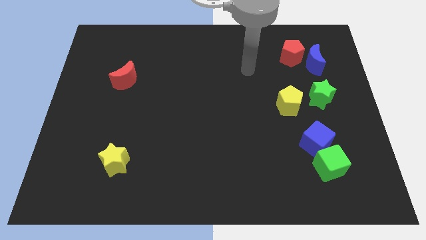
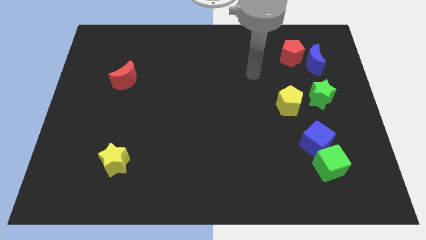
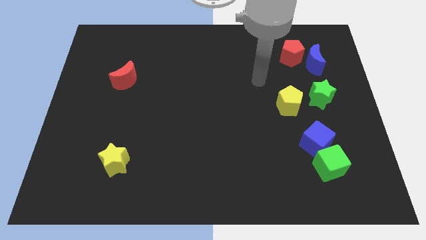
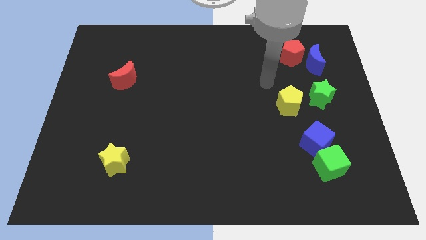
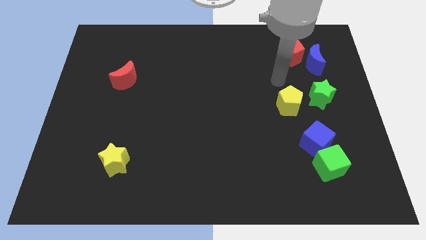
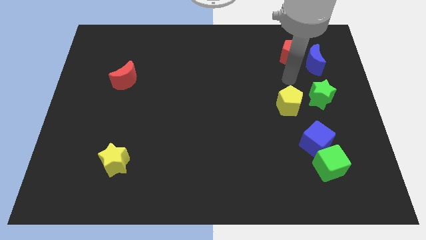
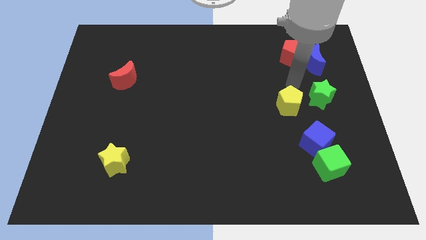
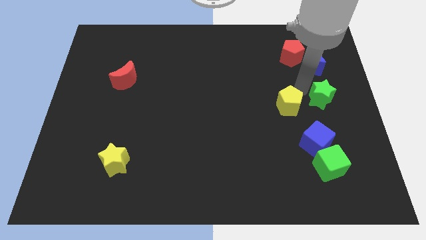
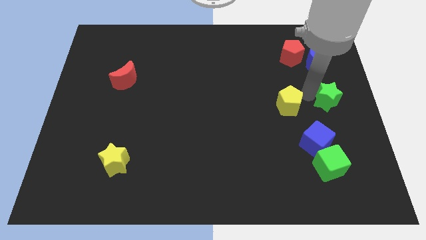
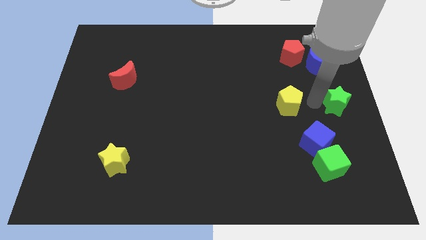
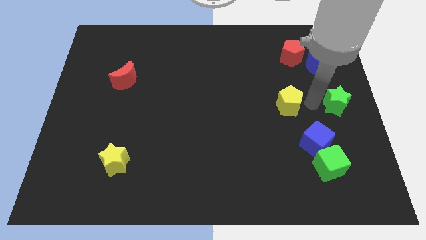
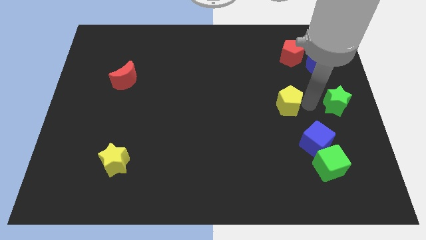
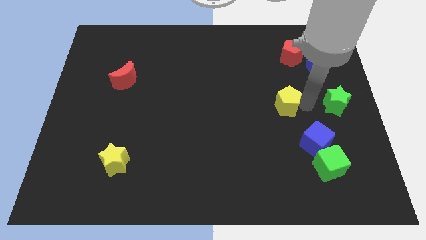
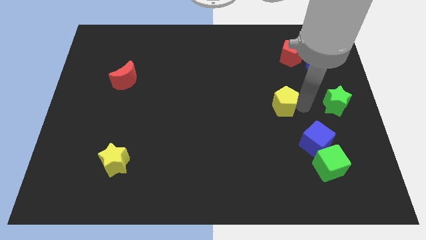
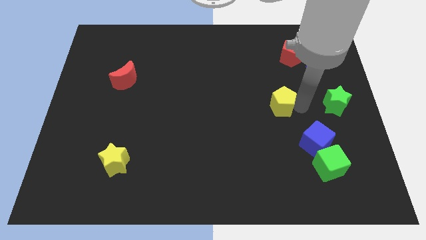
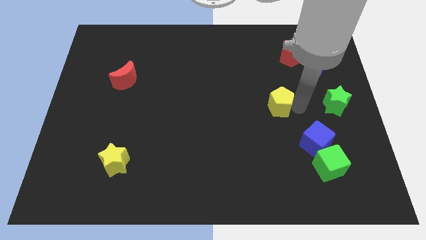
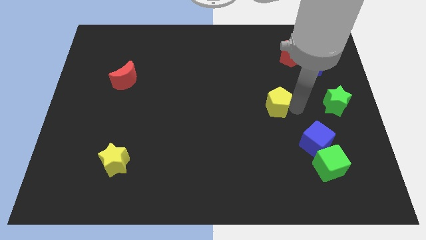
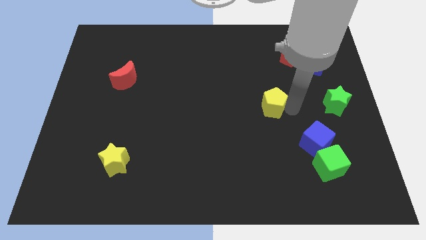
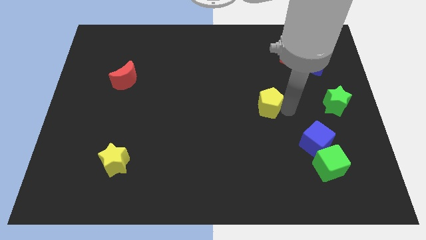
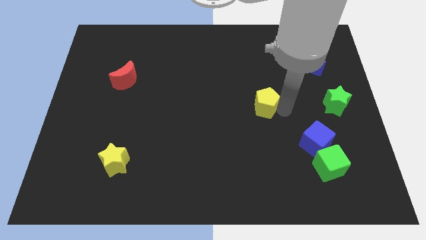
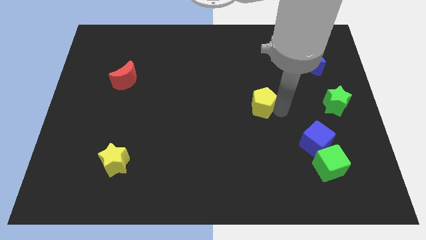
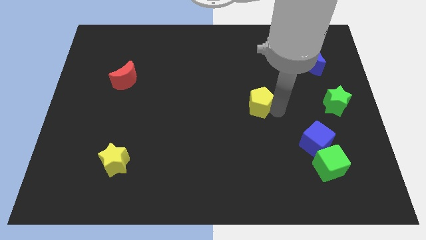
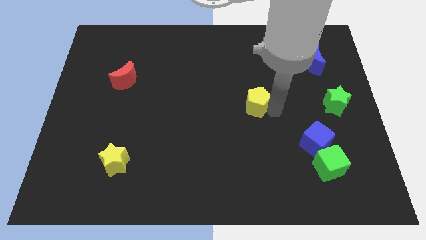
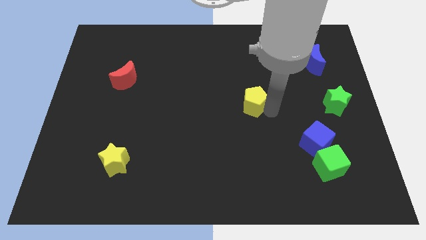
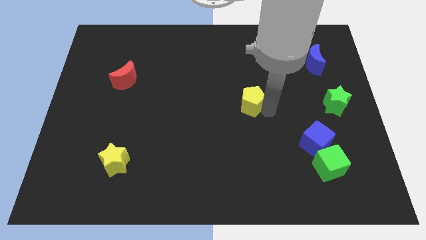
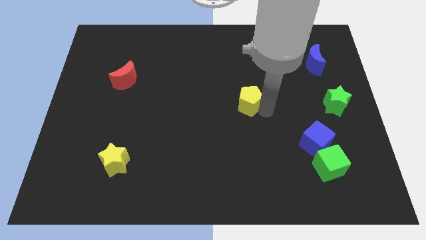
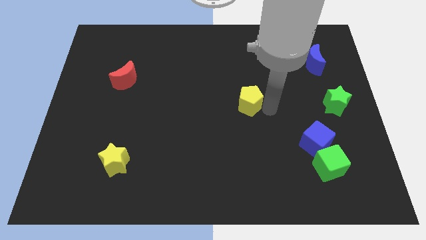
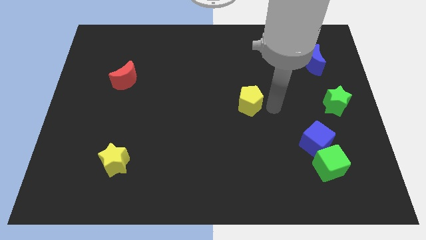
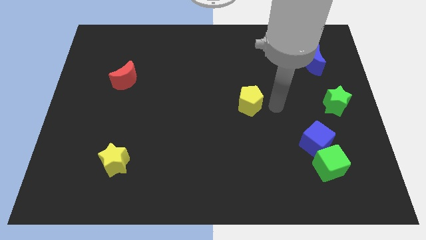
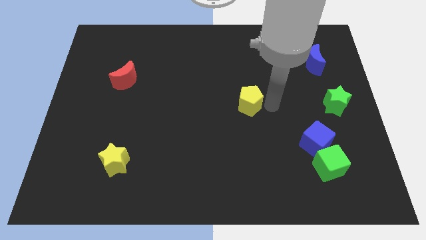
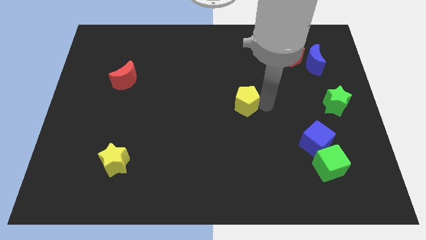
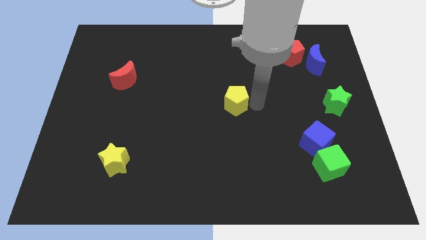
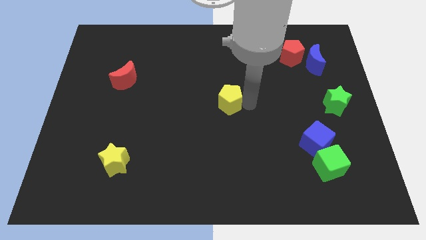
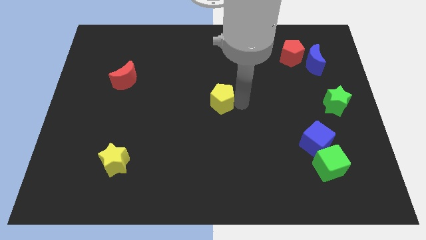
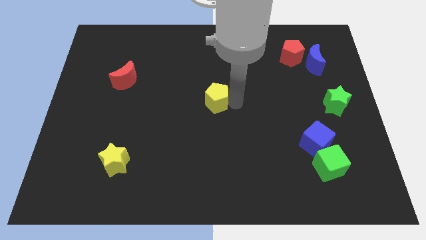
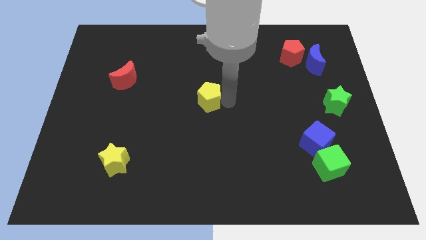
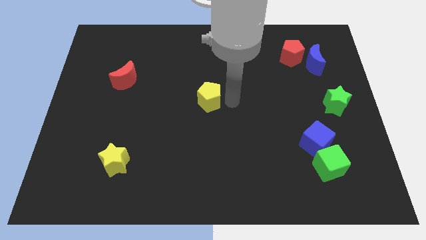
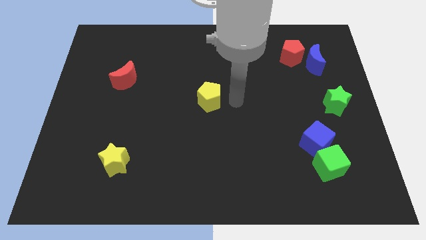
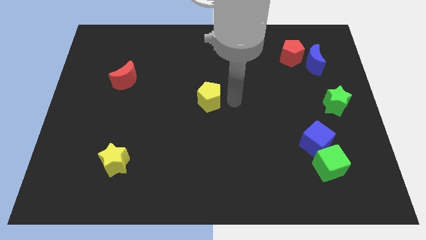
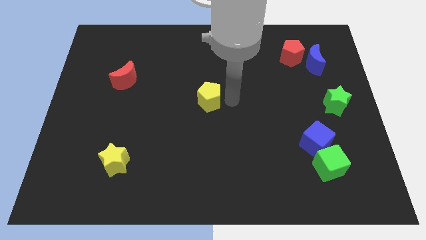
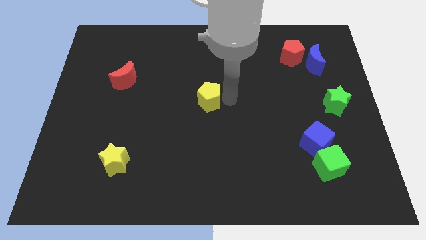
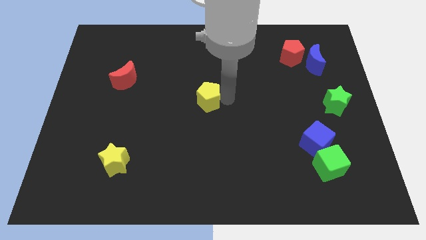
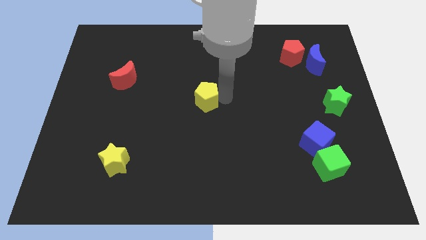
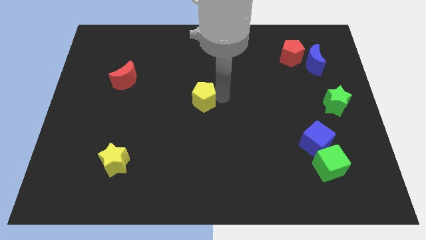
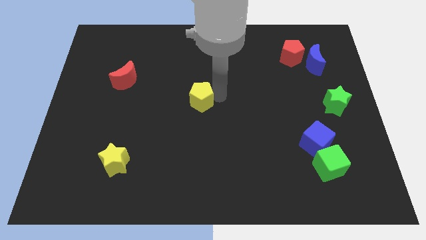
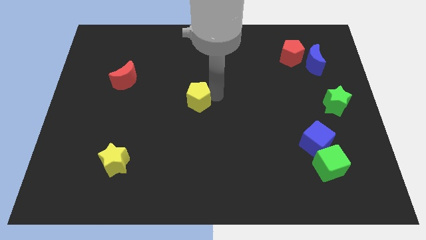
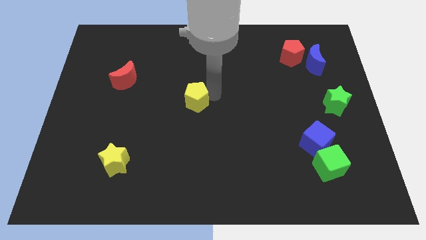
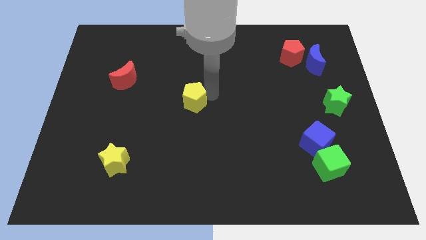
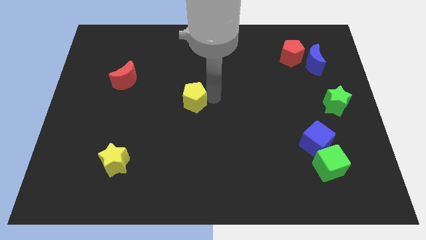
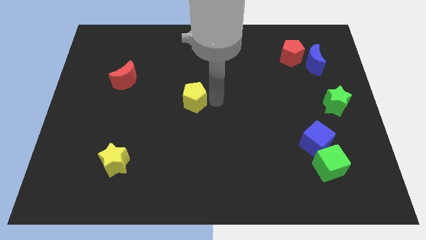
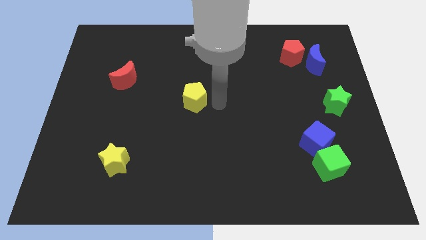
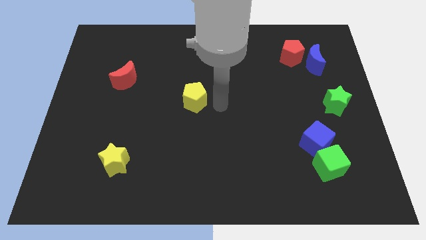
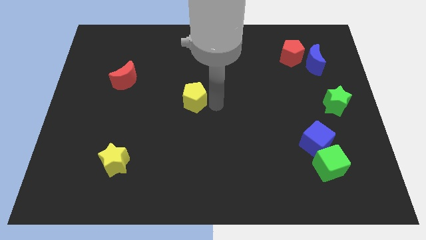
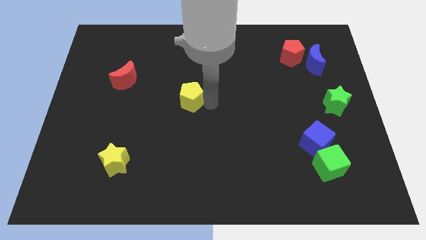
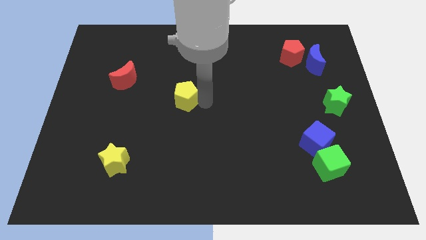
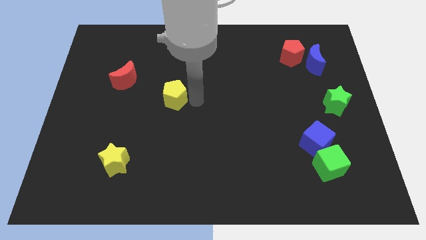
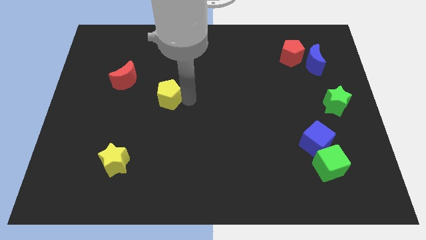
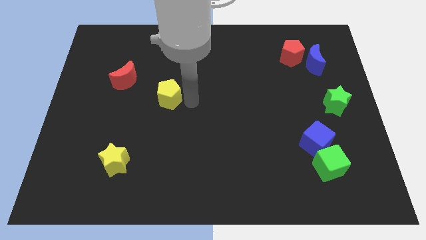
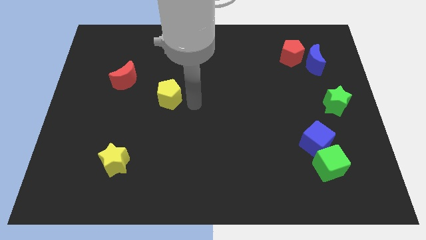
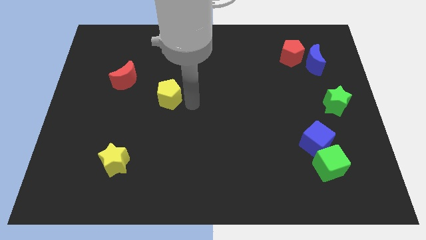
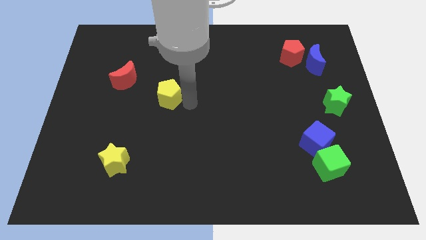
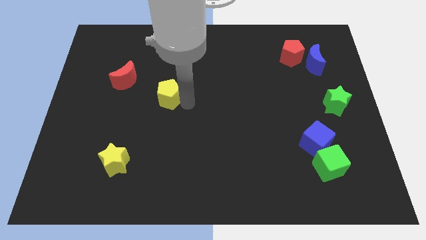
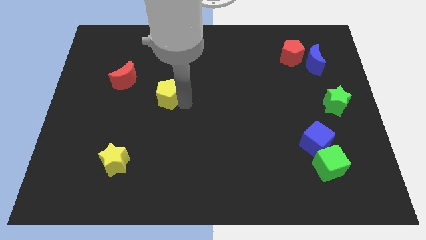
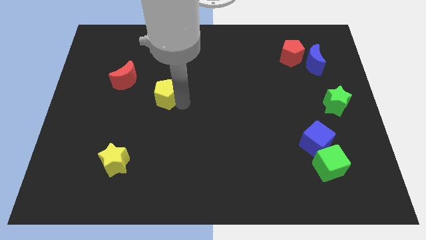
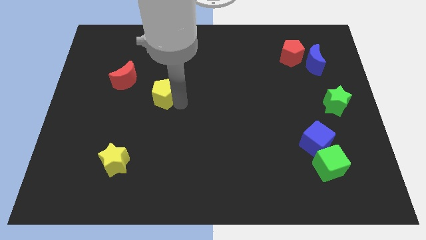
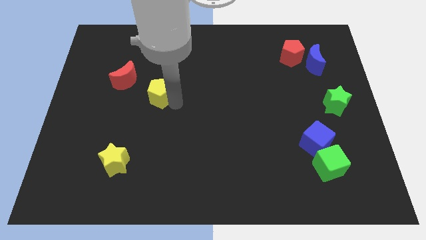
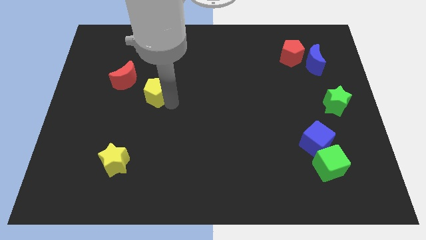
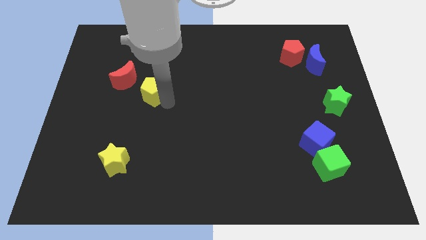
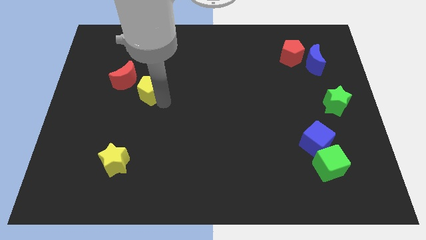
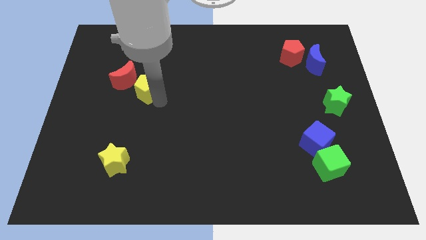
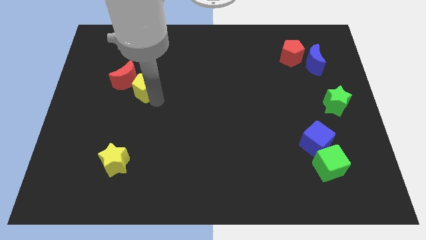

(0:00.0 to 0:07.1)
push the yellow pentagon towards the red moon
